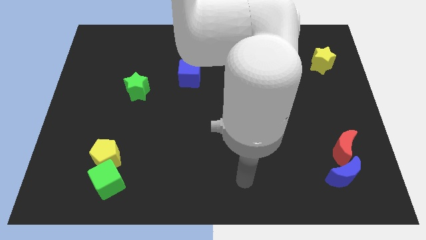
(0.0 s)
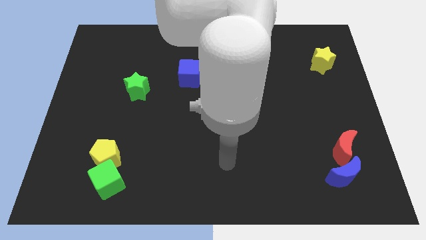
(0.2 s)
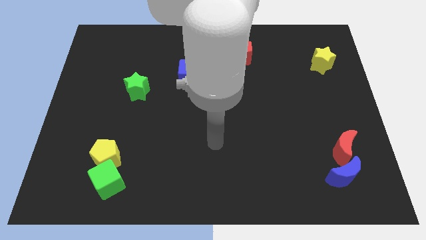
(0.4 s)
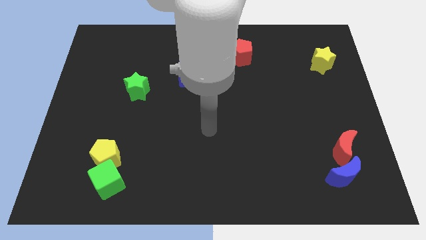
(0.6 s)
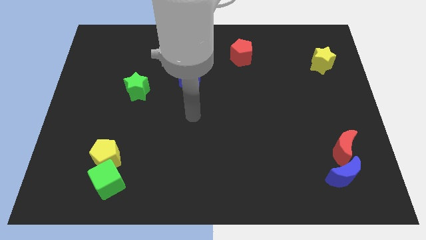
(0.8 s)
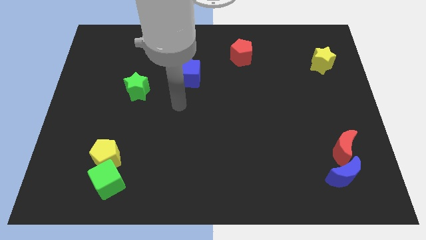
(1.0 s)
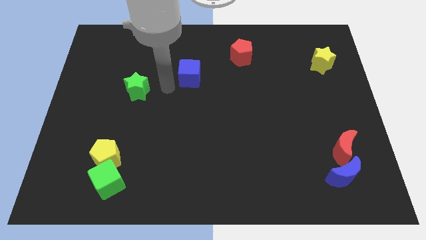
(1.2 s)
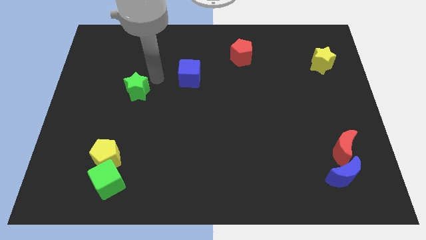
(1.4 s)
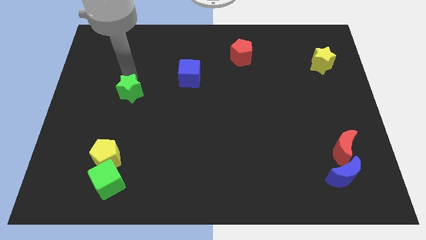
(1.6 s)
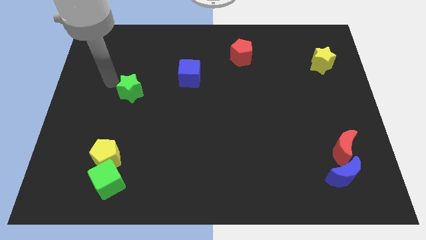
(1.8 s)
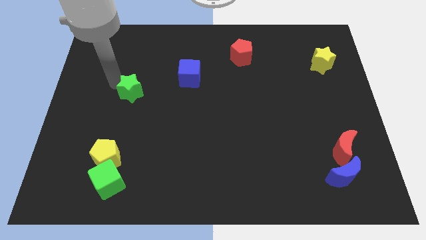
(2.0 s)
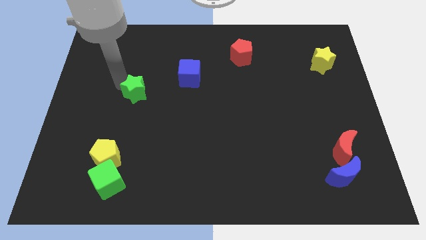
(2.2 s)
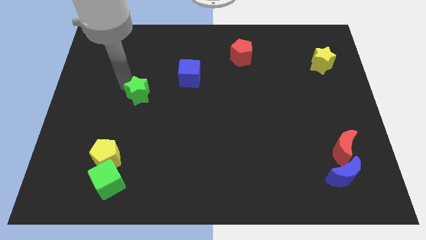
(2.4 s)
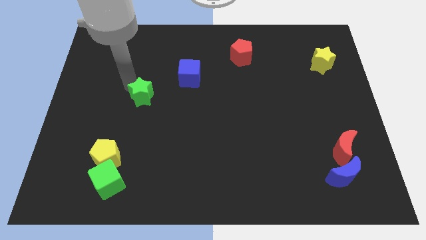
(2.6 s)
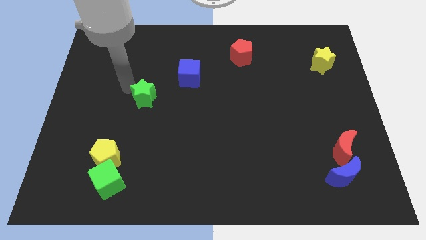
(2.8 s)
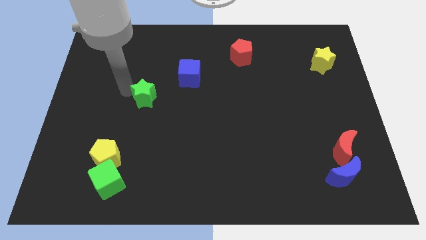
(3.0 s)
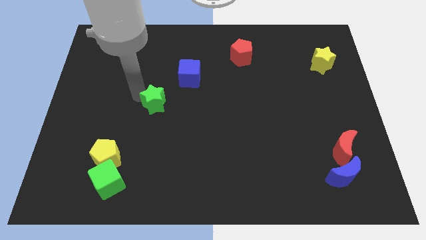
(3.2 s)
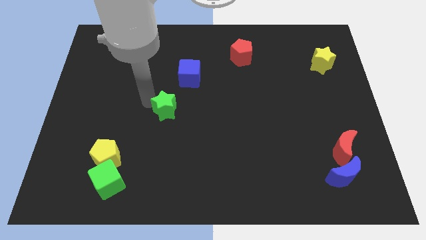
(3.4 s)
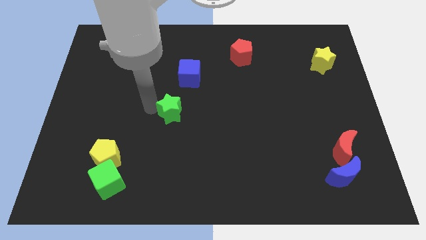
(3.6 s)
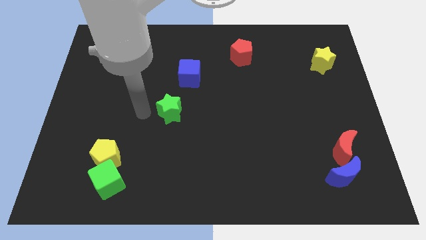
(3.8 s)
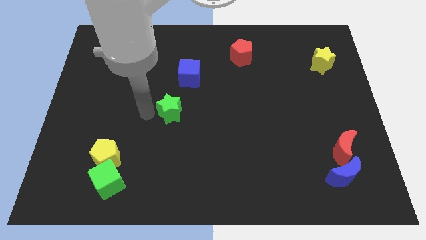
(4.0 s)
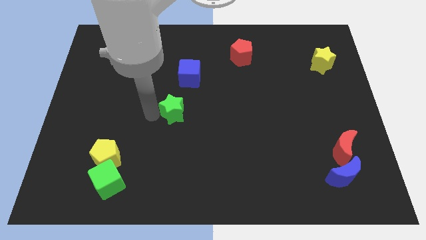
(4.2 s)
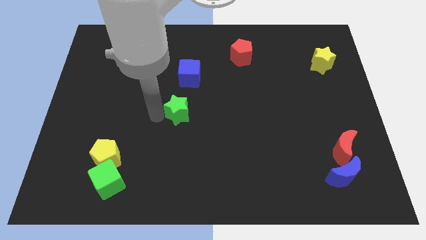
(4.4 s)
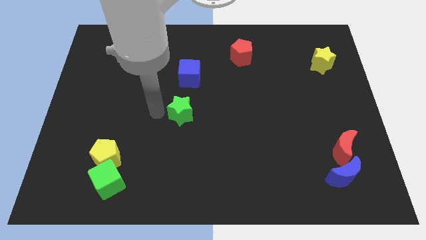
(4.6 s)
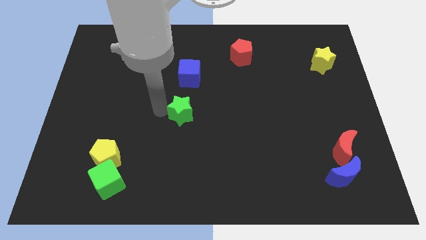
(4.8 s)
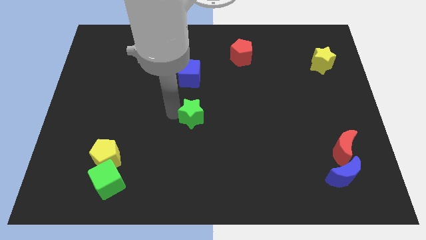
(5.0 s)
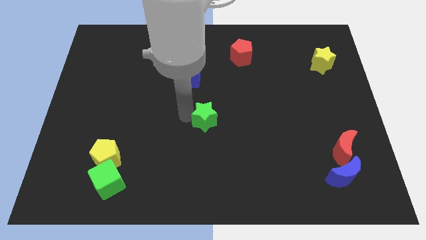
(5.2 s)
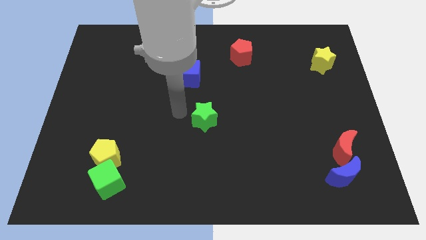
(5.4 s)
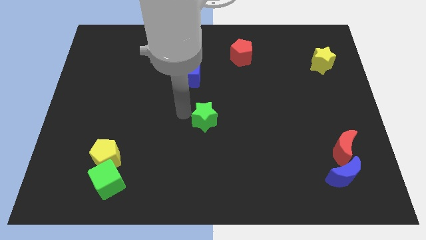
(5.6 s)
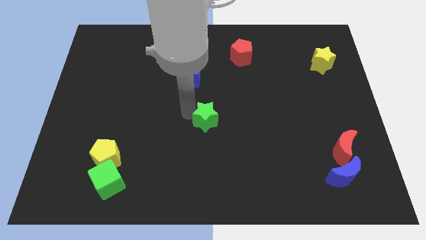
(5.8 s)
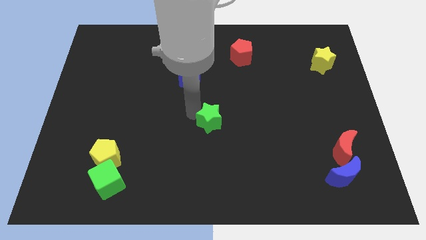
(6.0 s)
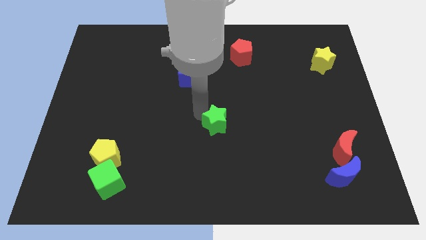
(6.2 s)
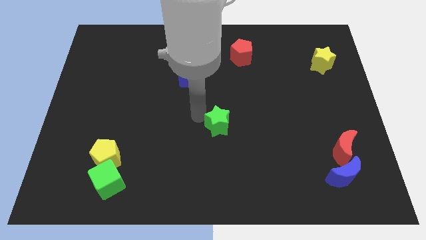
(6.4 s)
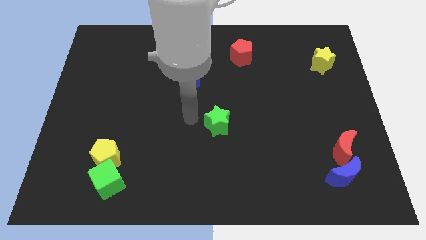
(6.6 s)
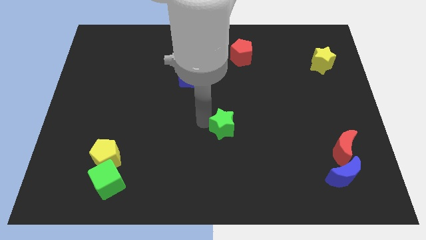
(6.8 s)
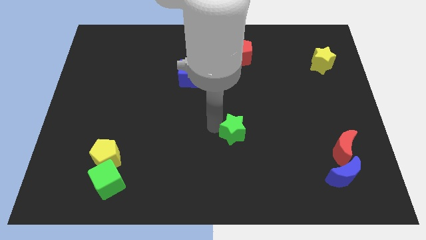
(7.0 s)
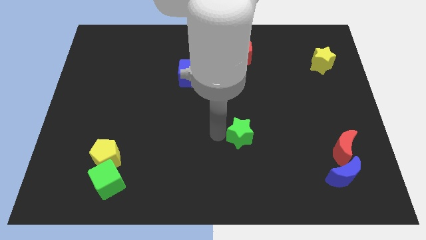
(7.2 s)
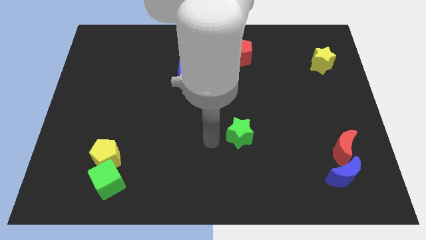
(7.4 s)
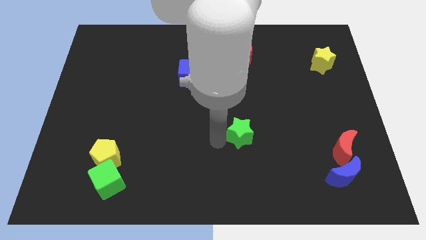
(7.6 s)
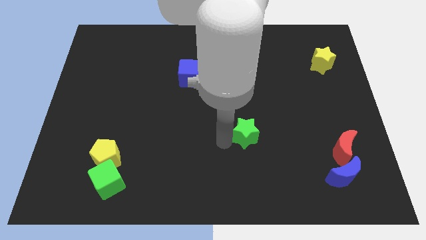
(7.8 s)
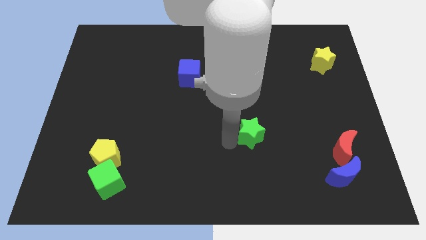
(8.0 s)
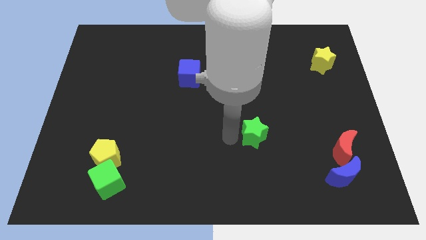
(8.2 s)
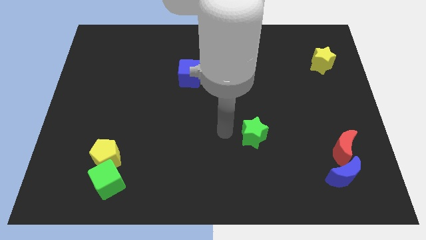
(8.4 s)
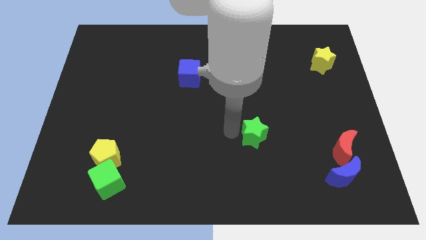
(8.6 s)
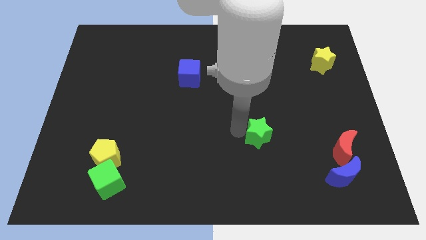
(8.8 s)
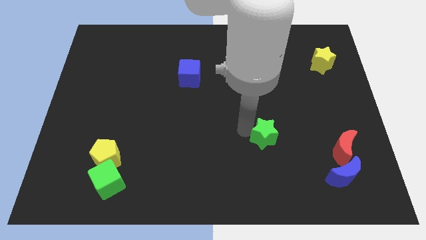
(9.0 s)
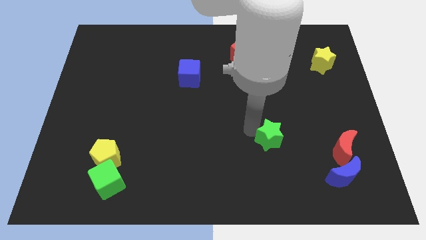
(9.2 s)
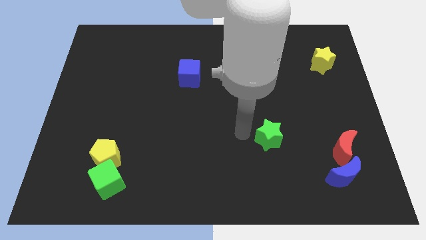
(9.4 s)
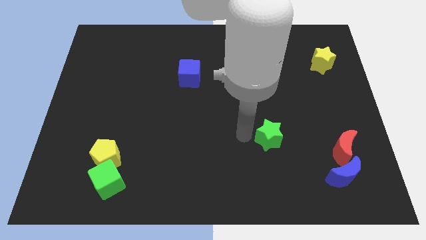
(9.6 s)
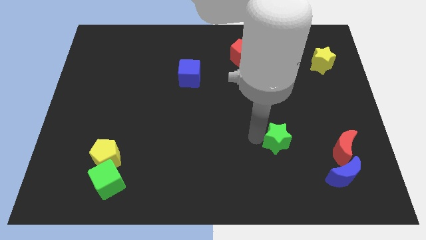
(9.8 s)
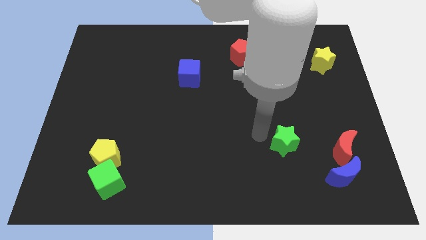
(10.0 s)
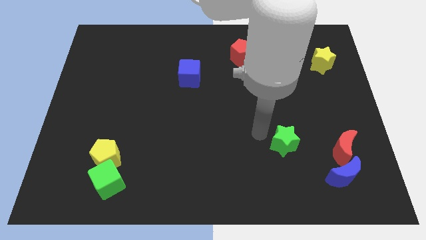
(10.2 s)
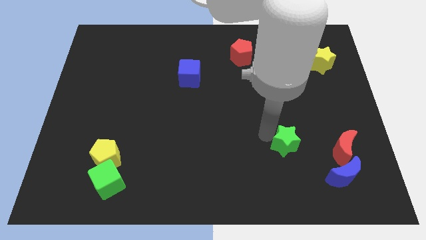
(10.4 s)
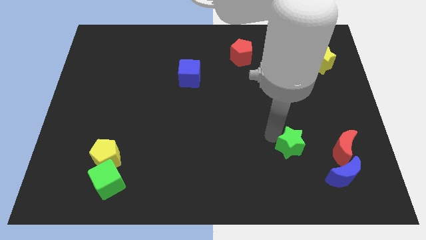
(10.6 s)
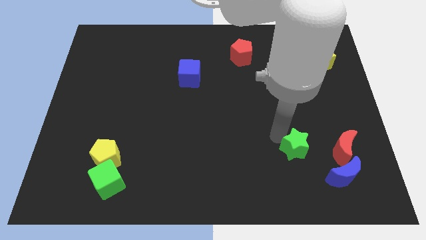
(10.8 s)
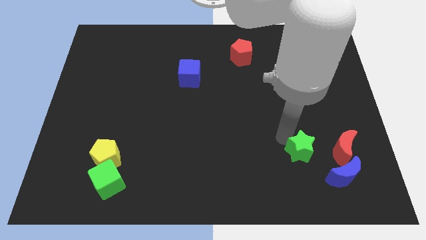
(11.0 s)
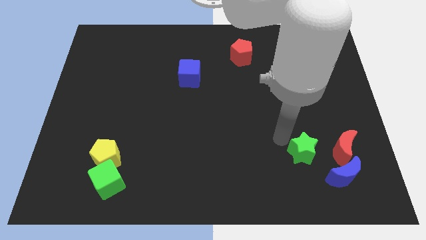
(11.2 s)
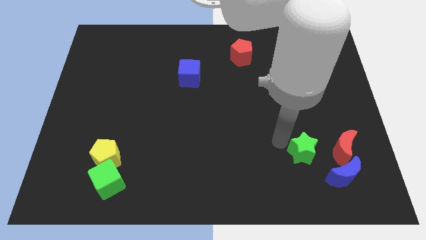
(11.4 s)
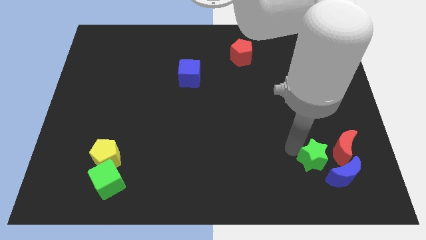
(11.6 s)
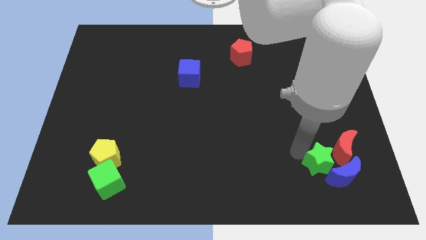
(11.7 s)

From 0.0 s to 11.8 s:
push the green star next to the blue moon

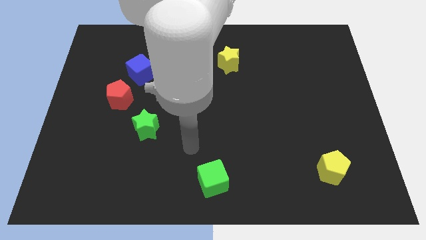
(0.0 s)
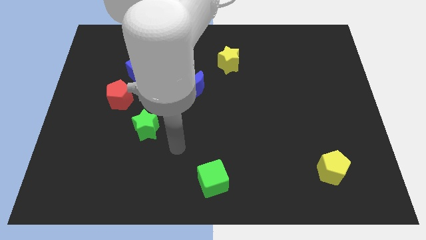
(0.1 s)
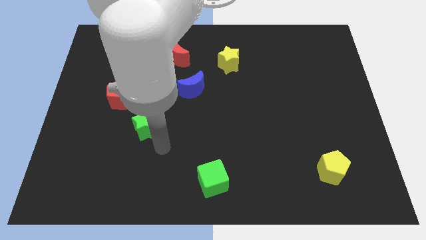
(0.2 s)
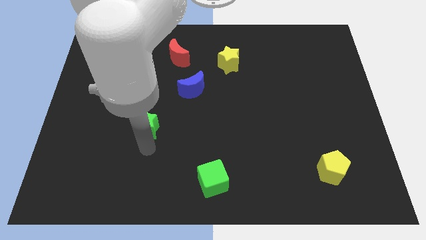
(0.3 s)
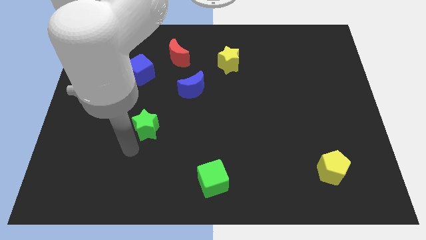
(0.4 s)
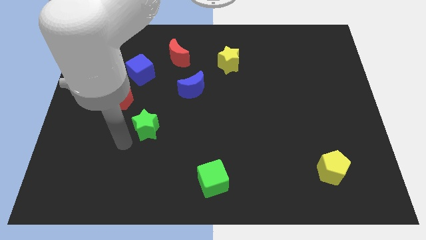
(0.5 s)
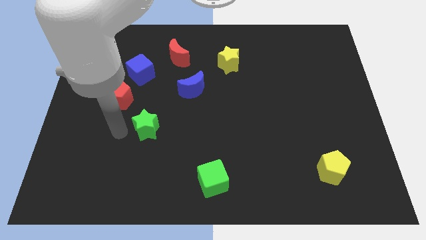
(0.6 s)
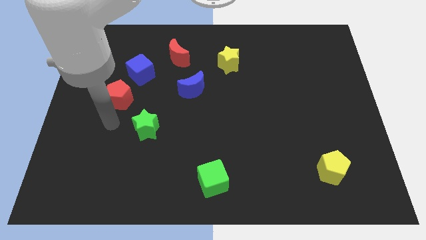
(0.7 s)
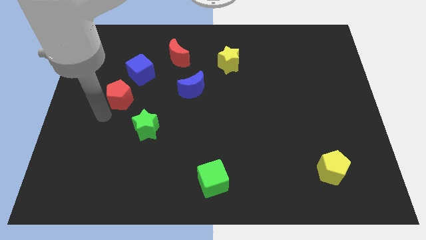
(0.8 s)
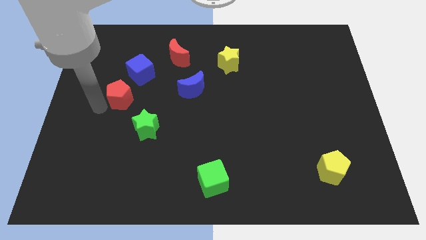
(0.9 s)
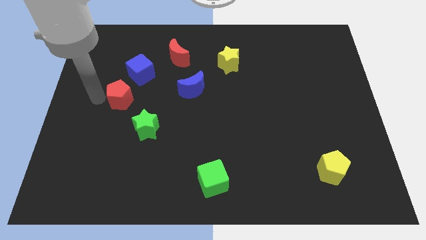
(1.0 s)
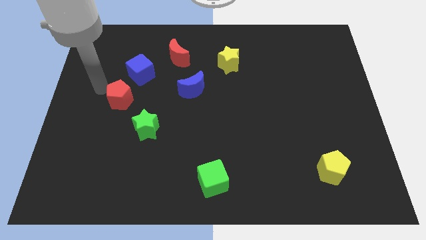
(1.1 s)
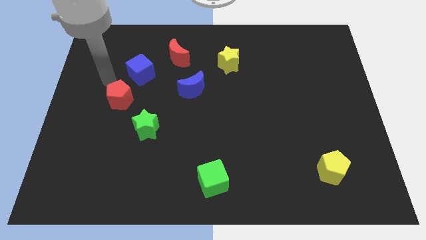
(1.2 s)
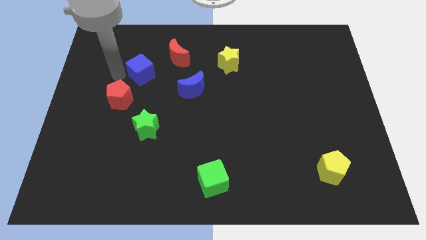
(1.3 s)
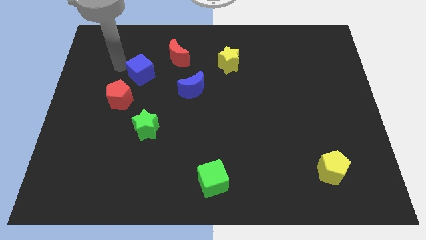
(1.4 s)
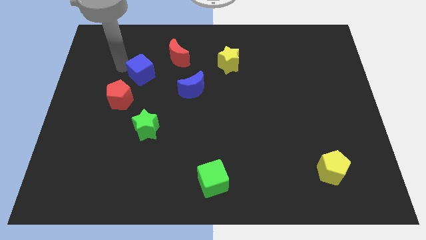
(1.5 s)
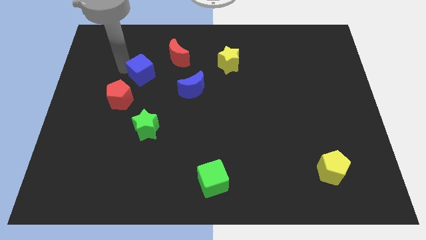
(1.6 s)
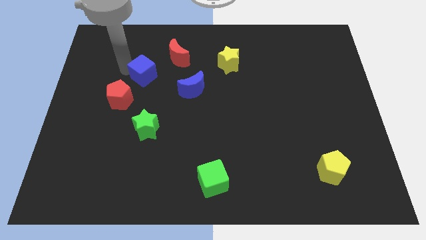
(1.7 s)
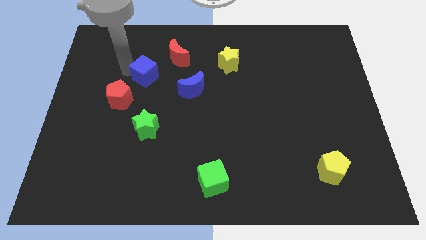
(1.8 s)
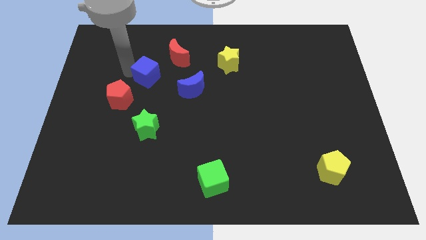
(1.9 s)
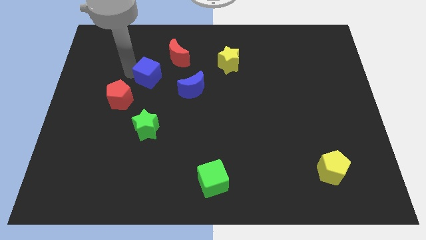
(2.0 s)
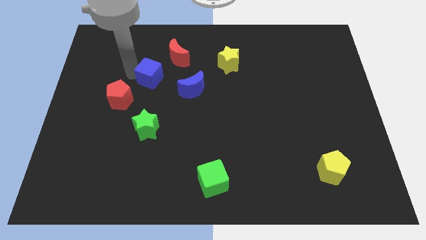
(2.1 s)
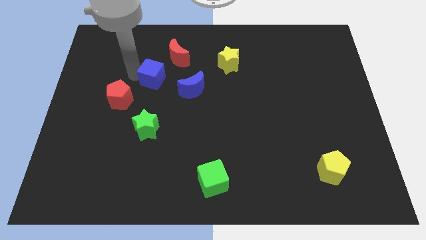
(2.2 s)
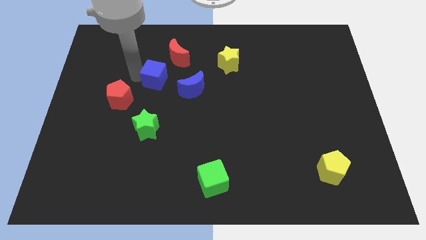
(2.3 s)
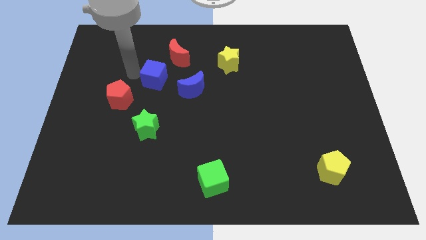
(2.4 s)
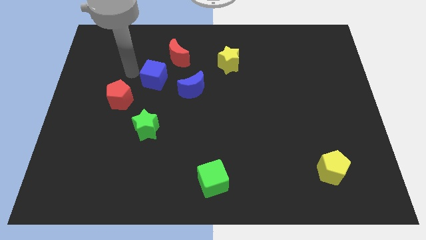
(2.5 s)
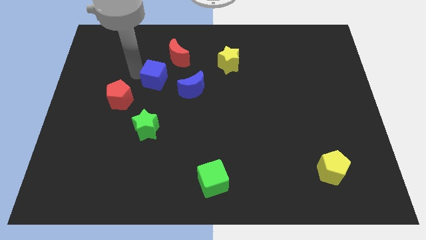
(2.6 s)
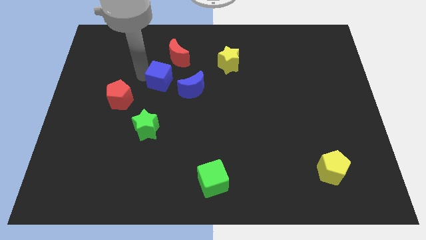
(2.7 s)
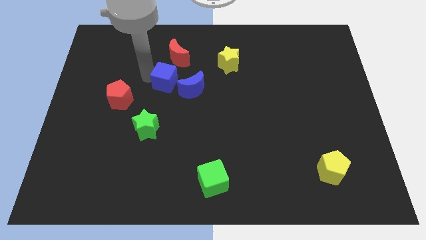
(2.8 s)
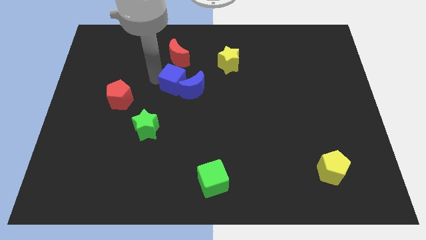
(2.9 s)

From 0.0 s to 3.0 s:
move the blue cube next to the blue moon
